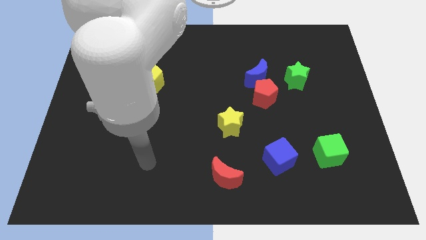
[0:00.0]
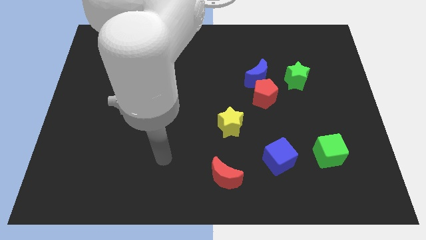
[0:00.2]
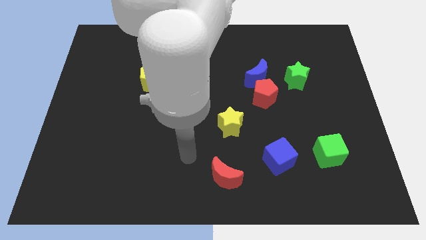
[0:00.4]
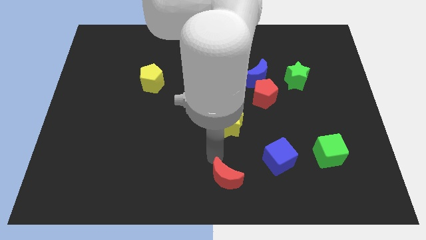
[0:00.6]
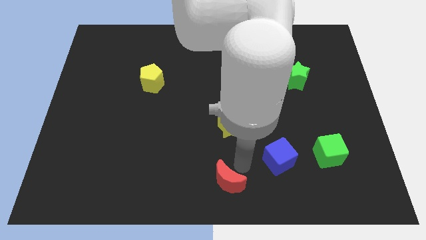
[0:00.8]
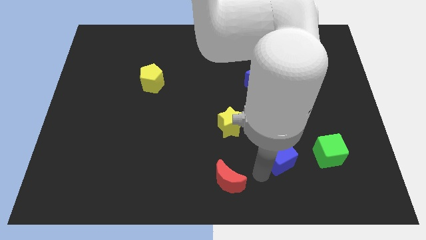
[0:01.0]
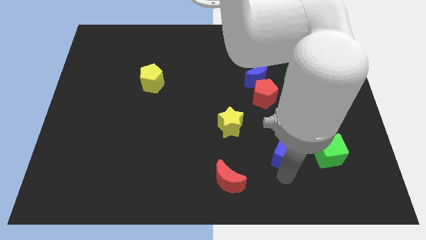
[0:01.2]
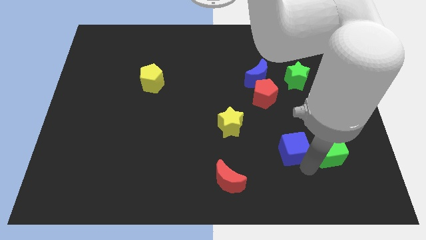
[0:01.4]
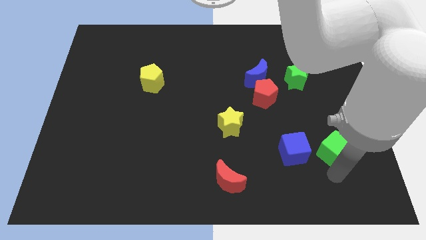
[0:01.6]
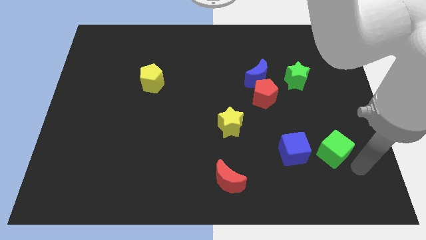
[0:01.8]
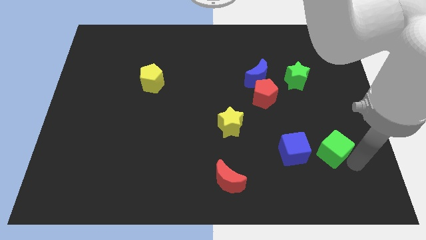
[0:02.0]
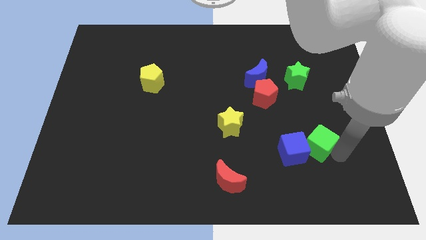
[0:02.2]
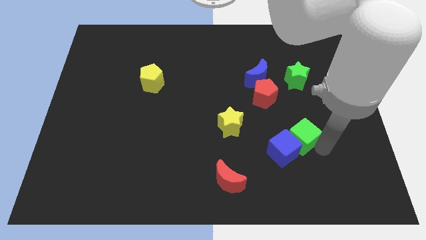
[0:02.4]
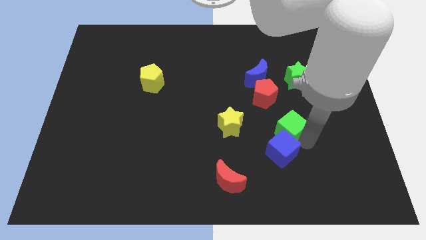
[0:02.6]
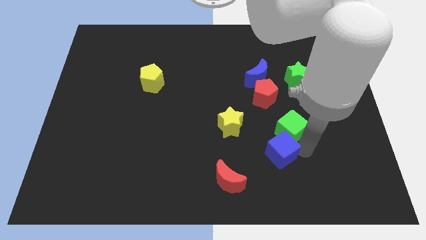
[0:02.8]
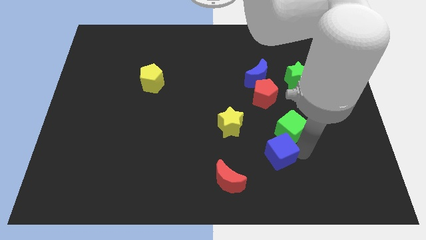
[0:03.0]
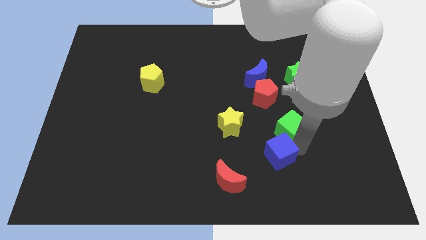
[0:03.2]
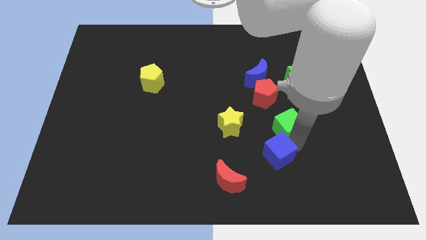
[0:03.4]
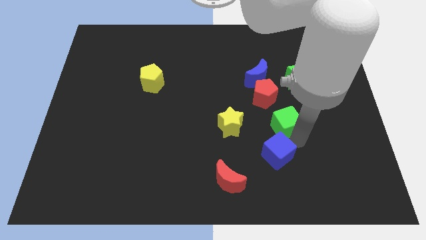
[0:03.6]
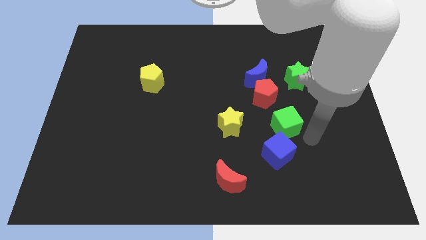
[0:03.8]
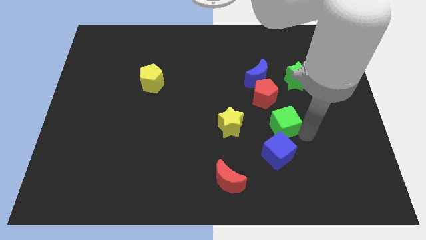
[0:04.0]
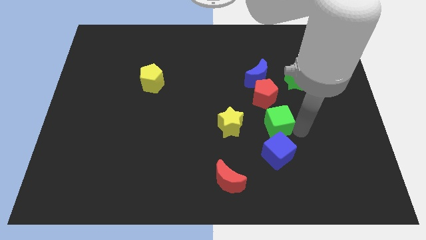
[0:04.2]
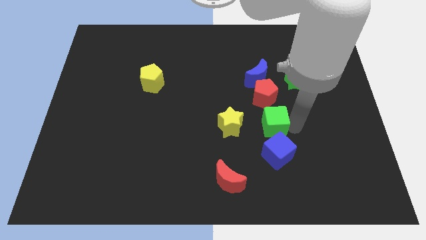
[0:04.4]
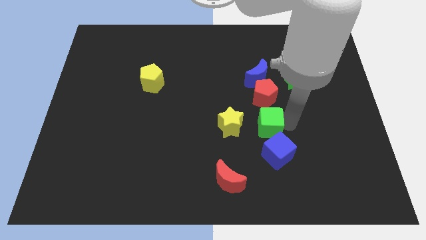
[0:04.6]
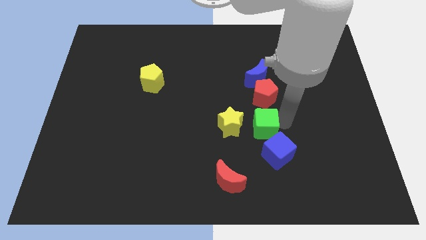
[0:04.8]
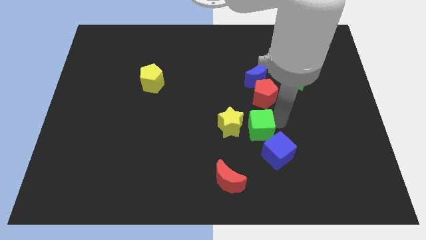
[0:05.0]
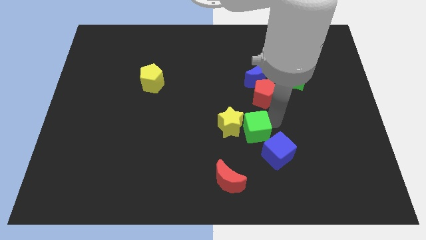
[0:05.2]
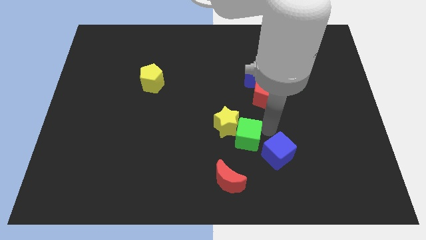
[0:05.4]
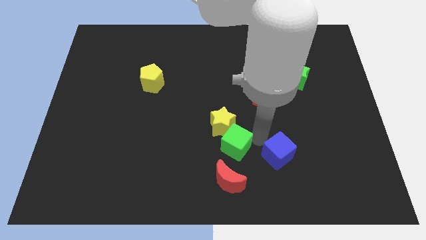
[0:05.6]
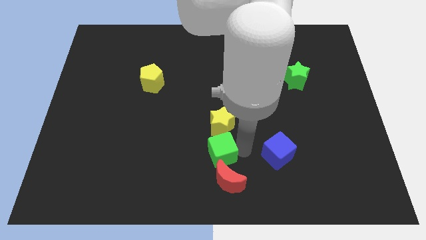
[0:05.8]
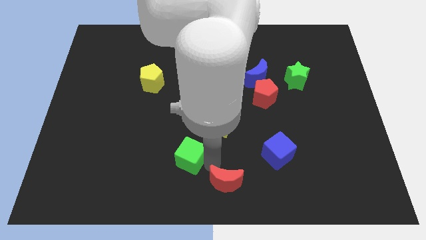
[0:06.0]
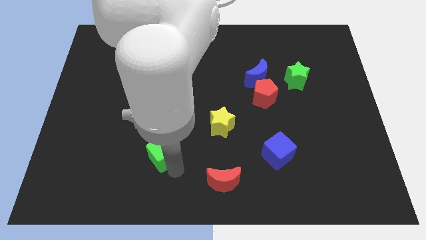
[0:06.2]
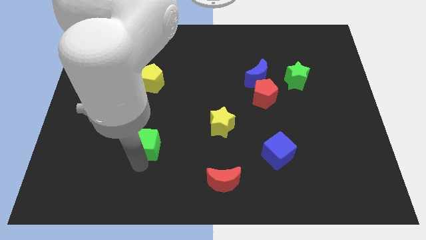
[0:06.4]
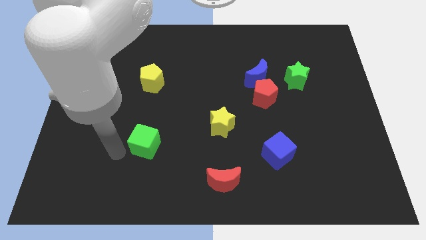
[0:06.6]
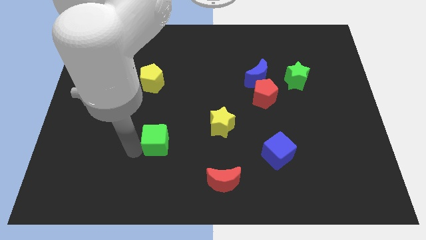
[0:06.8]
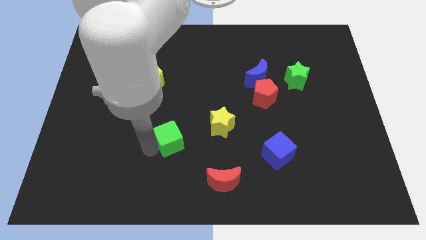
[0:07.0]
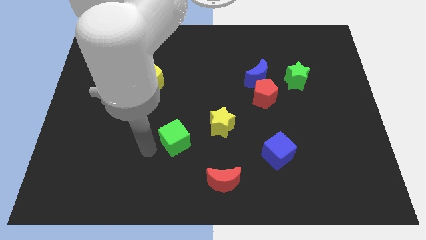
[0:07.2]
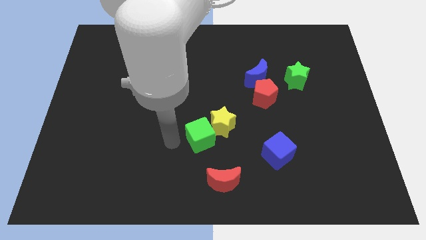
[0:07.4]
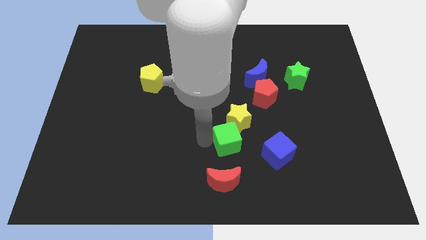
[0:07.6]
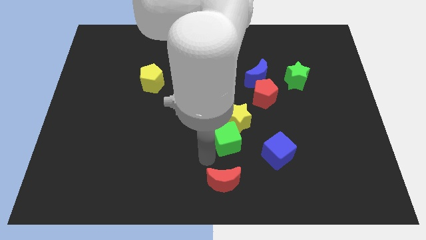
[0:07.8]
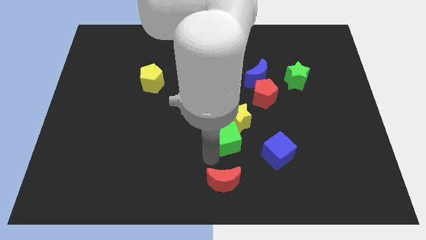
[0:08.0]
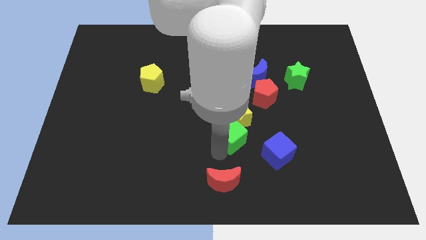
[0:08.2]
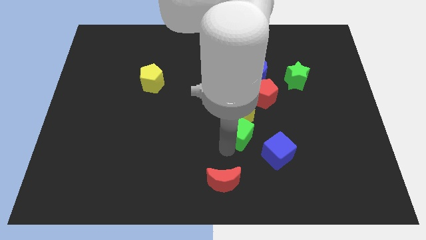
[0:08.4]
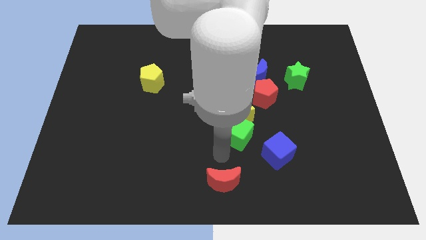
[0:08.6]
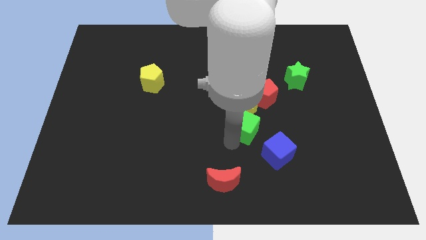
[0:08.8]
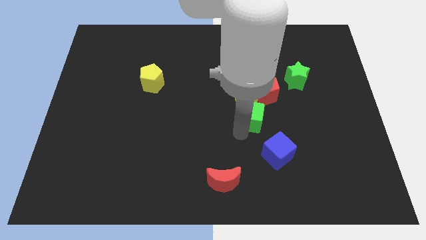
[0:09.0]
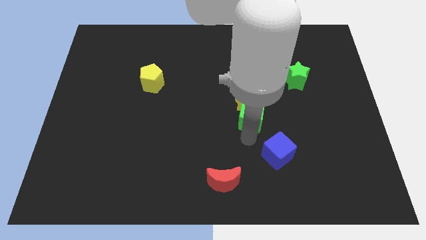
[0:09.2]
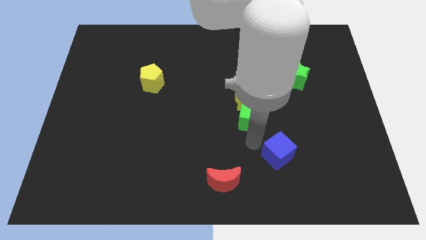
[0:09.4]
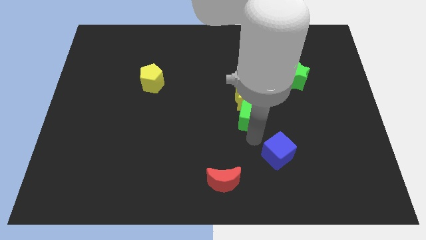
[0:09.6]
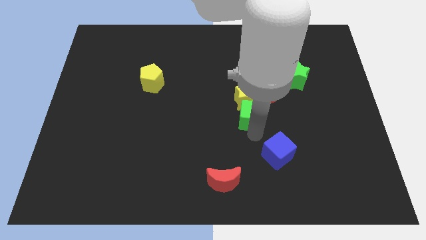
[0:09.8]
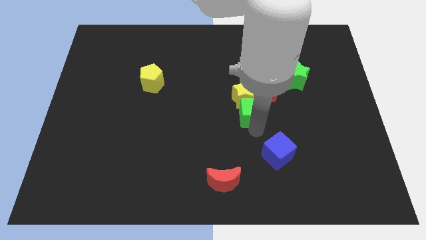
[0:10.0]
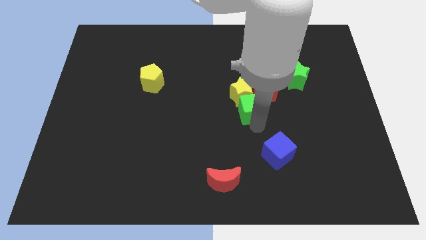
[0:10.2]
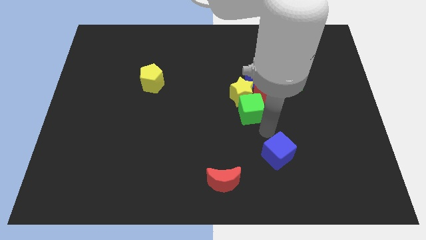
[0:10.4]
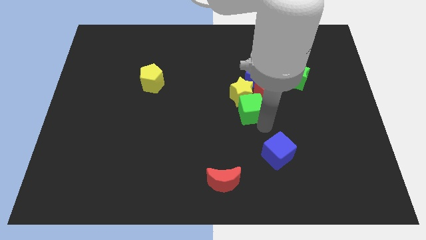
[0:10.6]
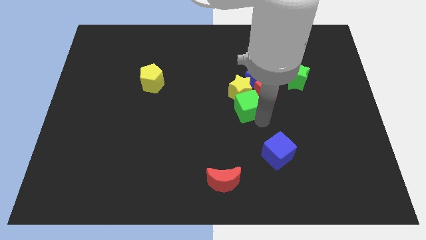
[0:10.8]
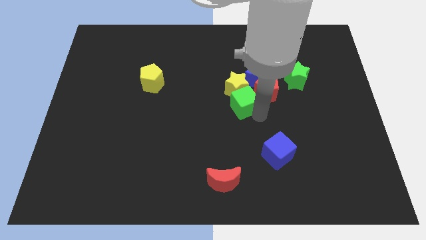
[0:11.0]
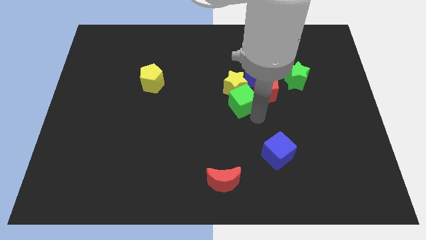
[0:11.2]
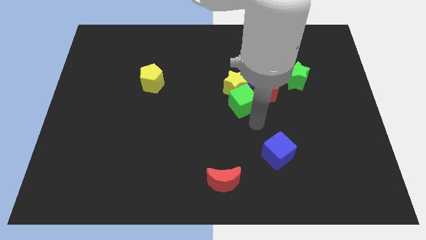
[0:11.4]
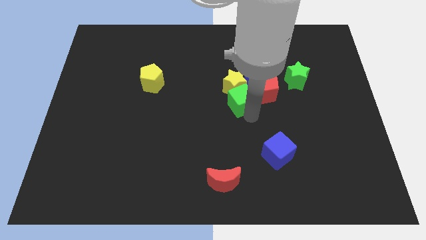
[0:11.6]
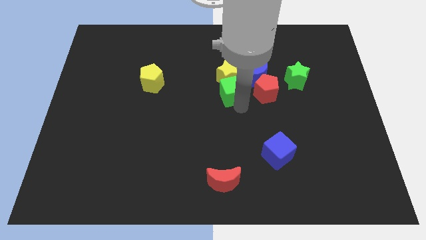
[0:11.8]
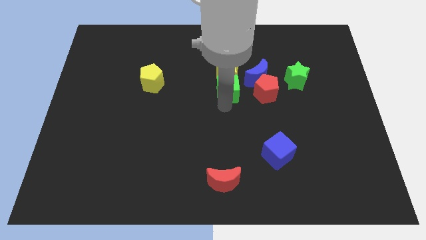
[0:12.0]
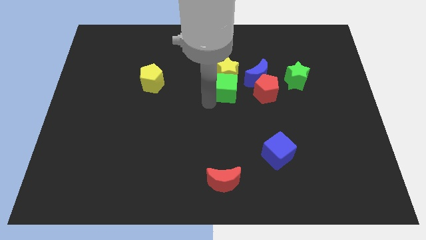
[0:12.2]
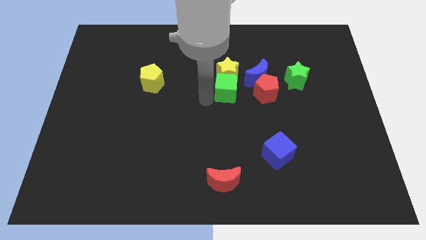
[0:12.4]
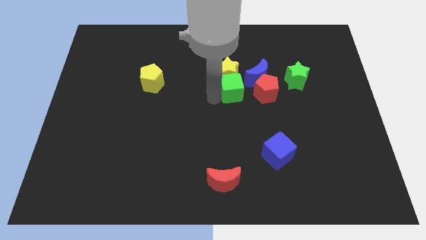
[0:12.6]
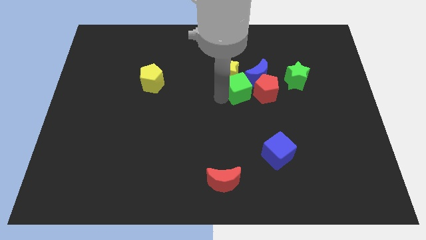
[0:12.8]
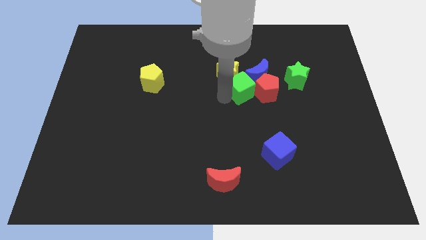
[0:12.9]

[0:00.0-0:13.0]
push the green cube to the blue moon

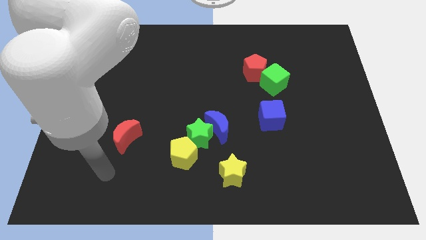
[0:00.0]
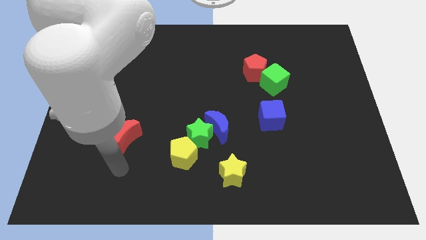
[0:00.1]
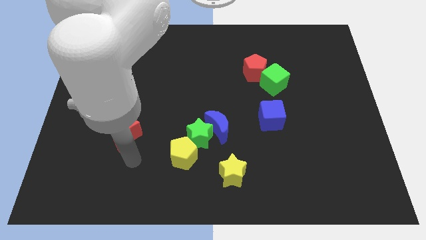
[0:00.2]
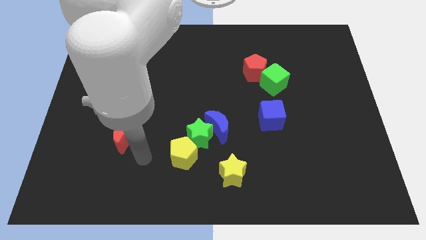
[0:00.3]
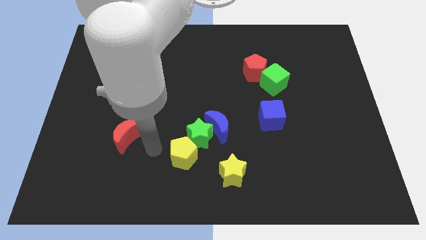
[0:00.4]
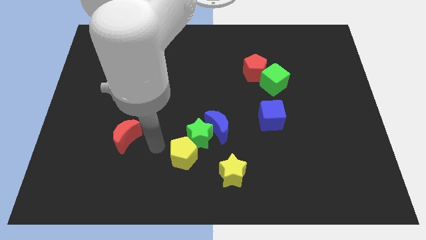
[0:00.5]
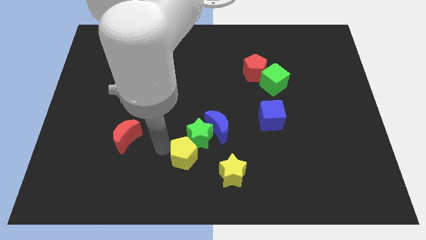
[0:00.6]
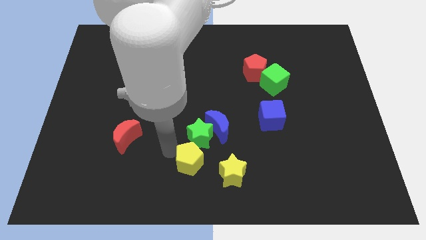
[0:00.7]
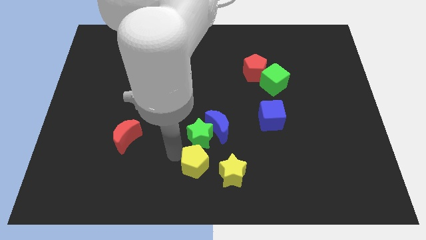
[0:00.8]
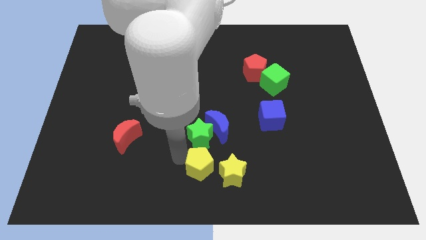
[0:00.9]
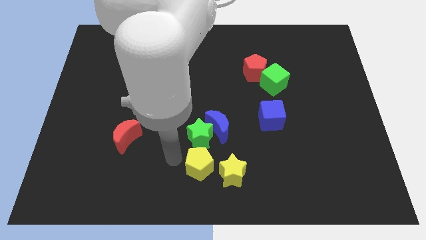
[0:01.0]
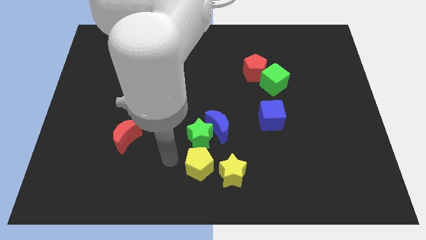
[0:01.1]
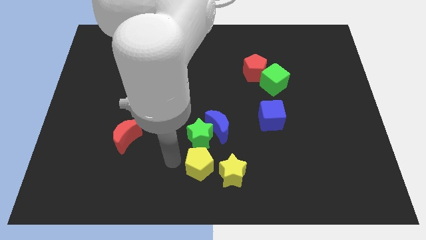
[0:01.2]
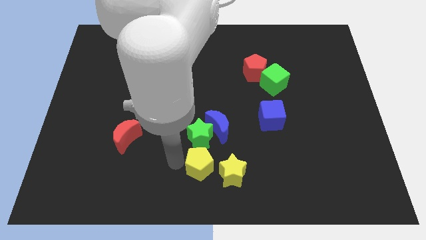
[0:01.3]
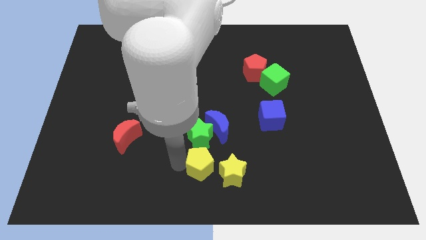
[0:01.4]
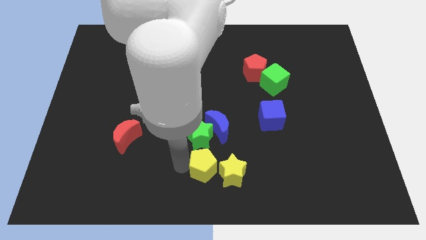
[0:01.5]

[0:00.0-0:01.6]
put the yellow pentagon to the yellow star
